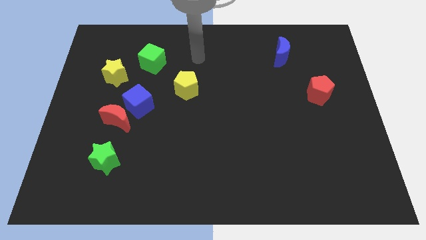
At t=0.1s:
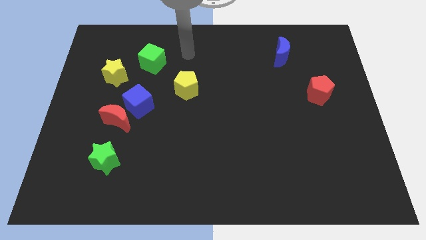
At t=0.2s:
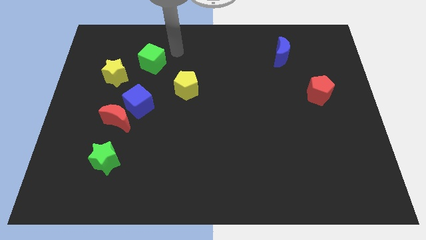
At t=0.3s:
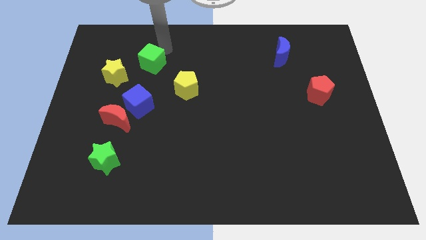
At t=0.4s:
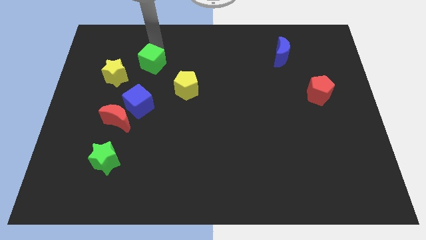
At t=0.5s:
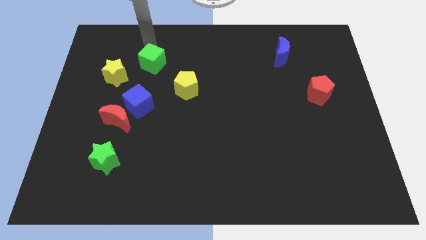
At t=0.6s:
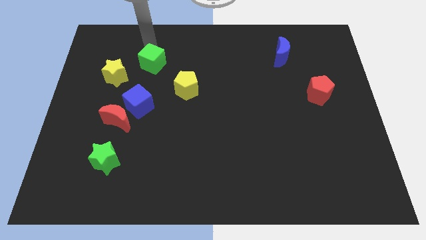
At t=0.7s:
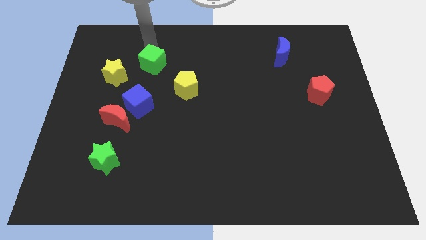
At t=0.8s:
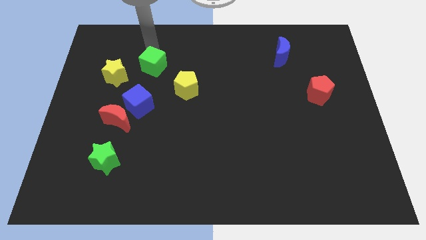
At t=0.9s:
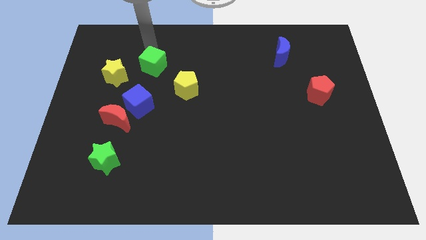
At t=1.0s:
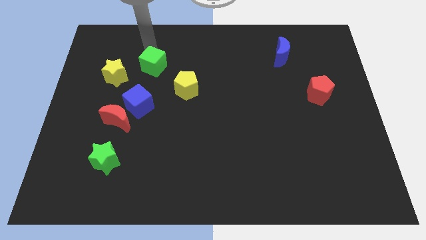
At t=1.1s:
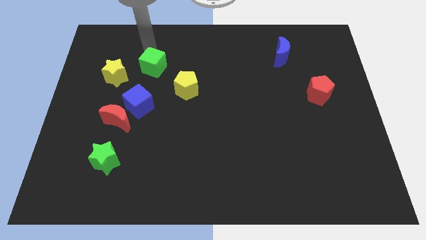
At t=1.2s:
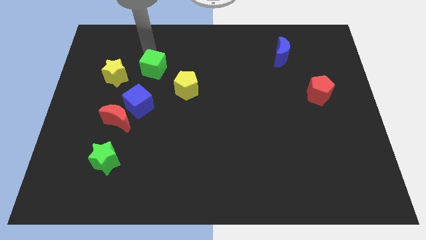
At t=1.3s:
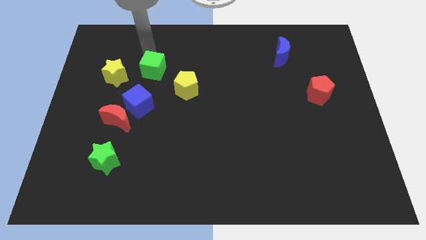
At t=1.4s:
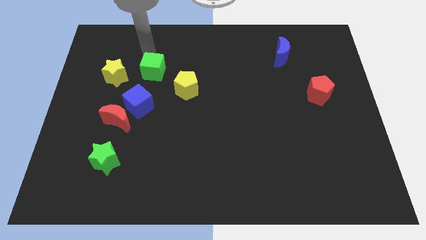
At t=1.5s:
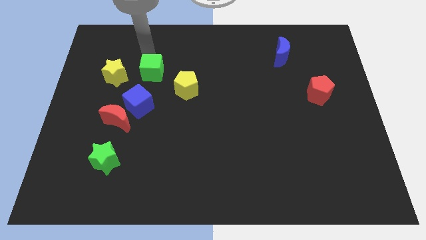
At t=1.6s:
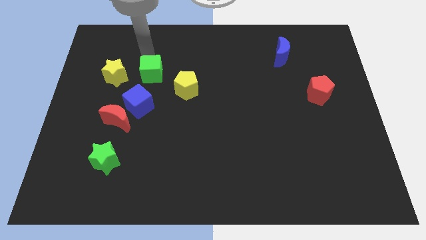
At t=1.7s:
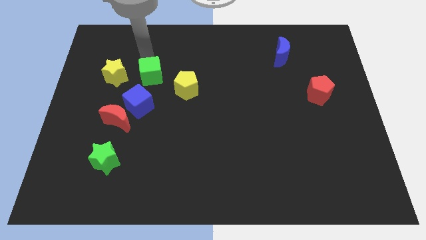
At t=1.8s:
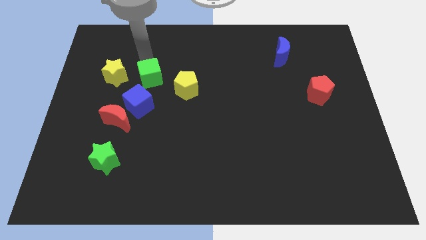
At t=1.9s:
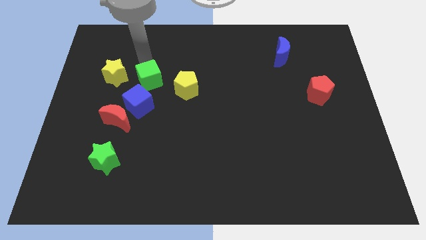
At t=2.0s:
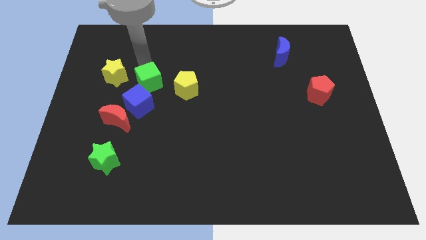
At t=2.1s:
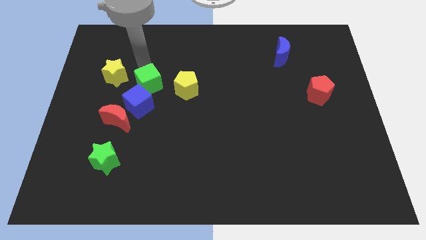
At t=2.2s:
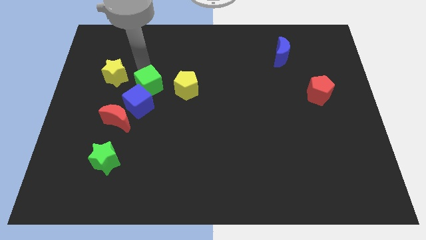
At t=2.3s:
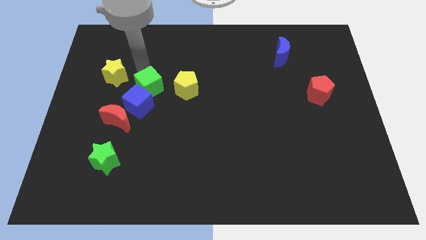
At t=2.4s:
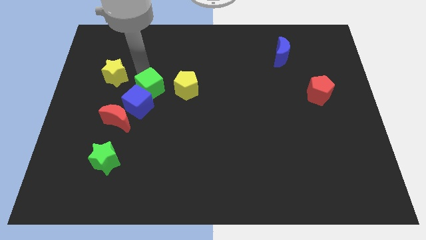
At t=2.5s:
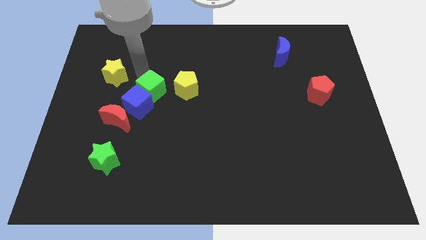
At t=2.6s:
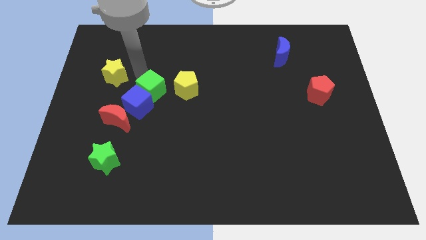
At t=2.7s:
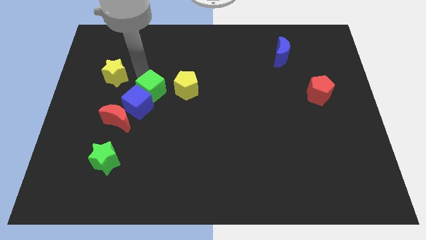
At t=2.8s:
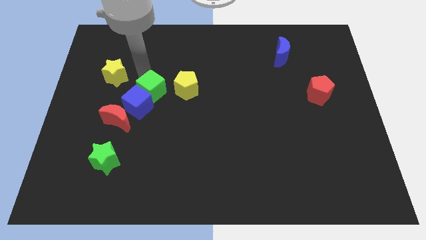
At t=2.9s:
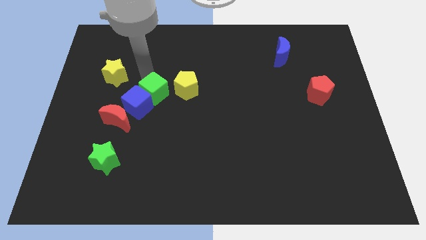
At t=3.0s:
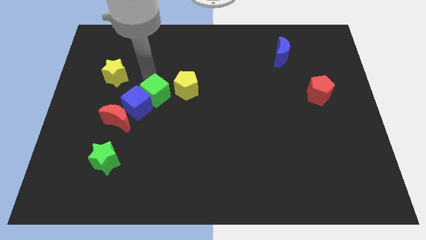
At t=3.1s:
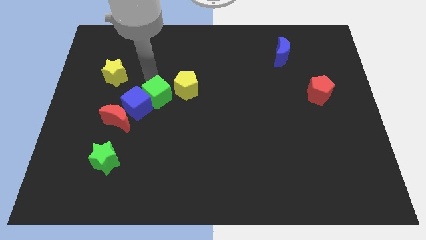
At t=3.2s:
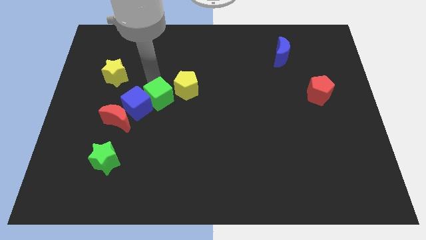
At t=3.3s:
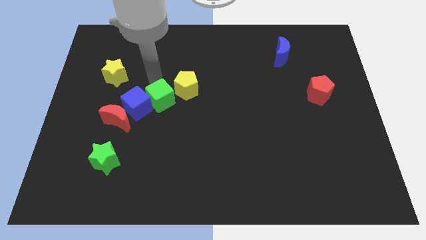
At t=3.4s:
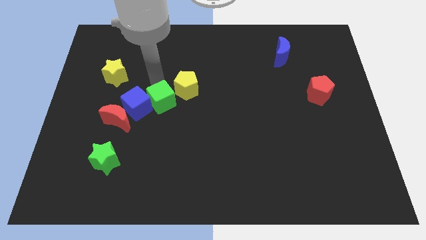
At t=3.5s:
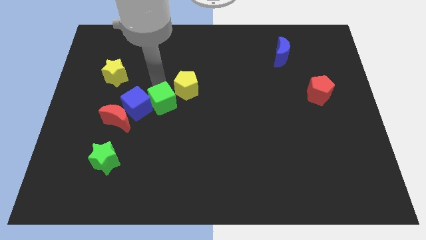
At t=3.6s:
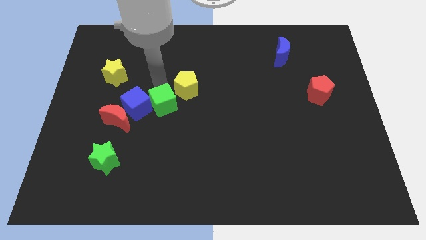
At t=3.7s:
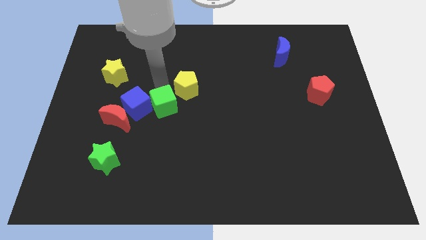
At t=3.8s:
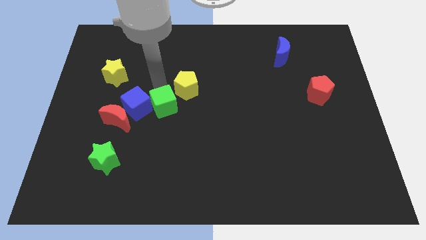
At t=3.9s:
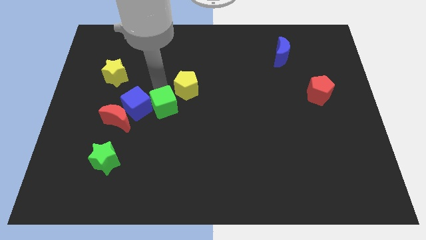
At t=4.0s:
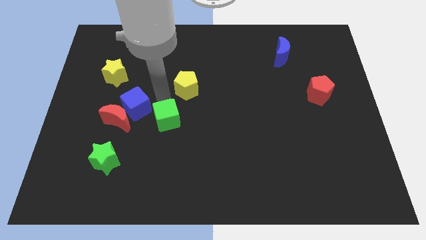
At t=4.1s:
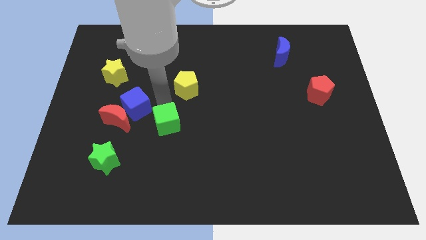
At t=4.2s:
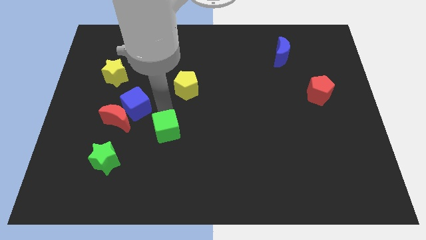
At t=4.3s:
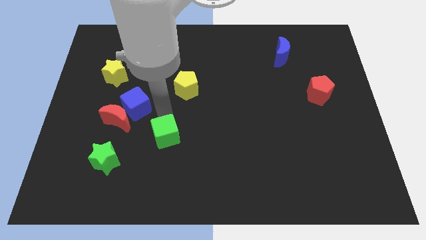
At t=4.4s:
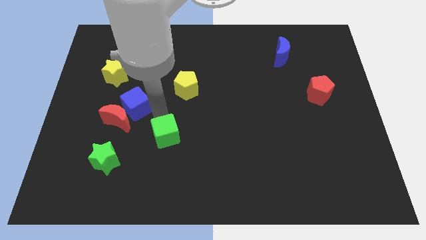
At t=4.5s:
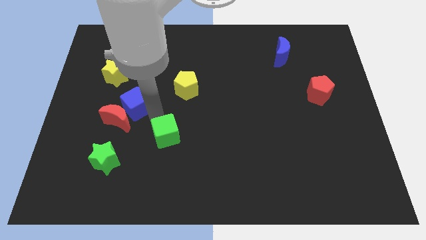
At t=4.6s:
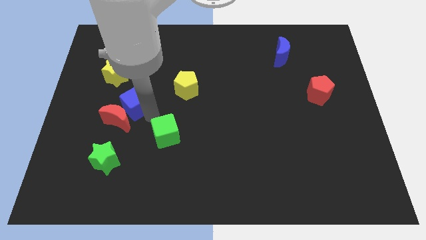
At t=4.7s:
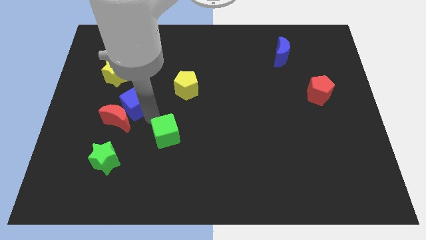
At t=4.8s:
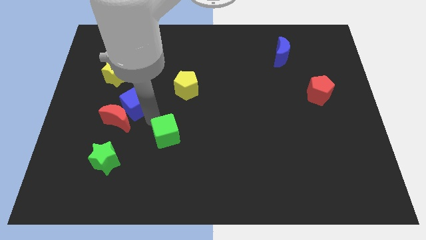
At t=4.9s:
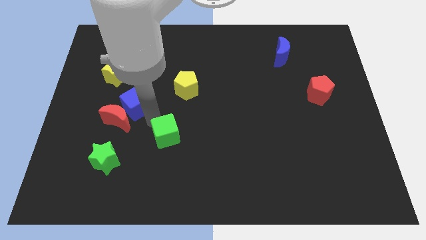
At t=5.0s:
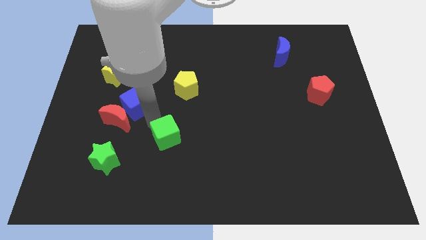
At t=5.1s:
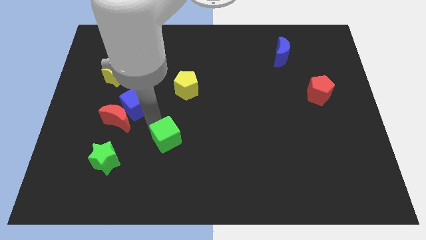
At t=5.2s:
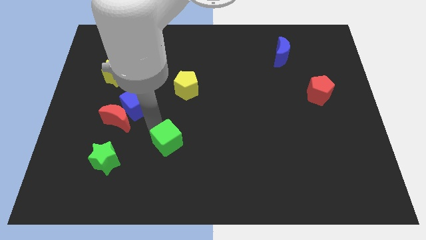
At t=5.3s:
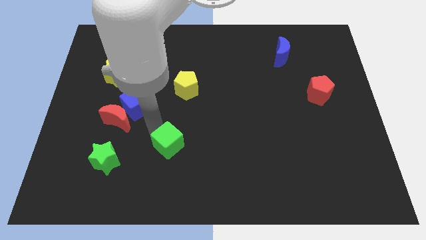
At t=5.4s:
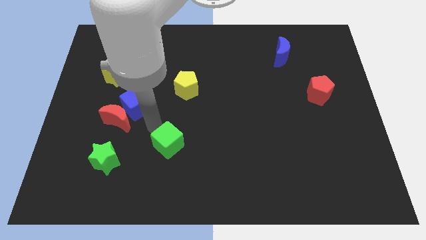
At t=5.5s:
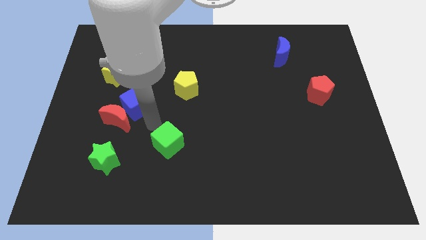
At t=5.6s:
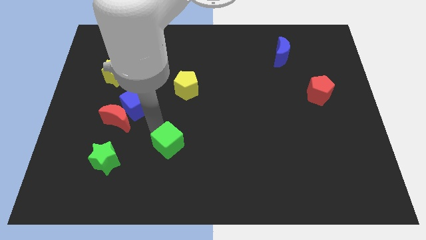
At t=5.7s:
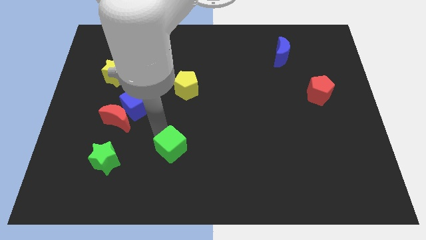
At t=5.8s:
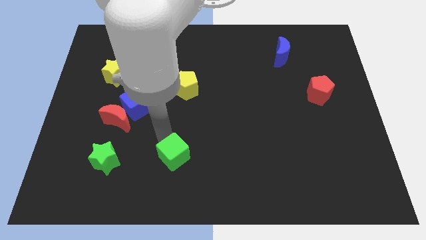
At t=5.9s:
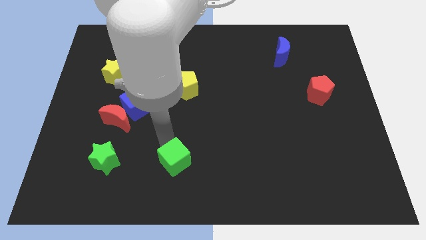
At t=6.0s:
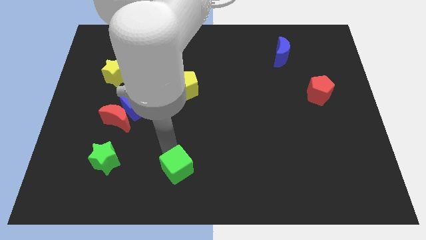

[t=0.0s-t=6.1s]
move the green cube to the bottom side
